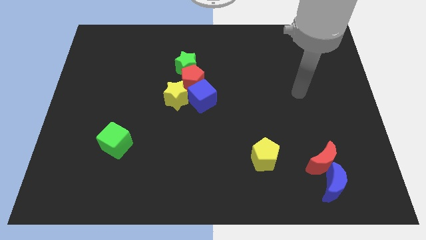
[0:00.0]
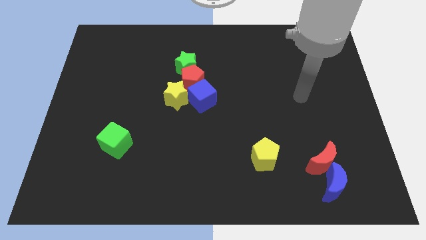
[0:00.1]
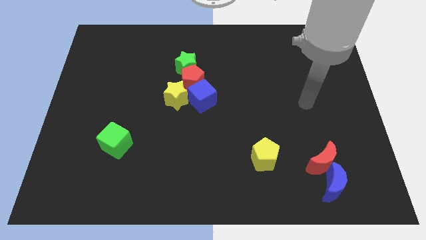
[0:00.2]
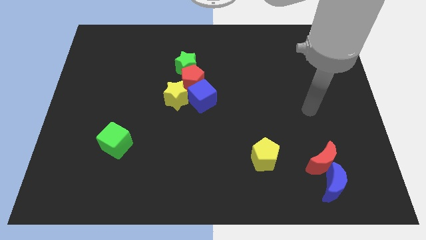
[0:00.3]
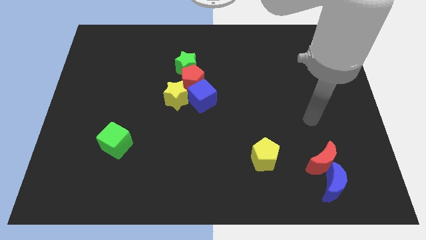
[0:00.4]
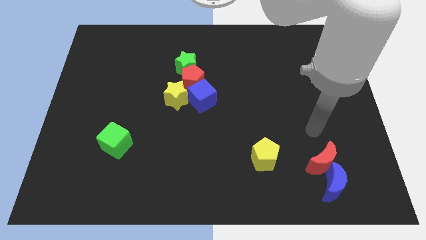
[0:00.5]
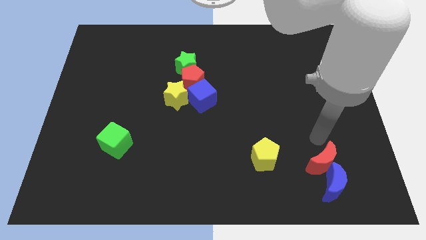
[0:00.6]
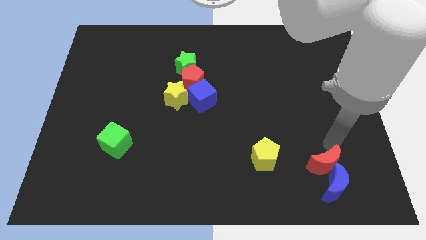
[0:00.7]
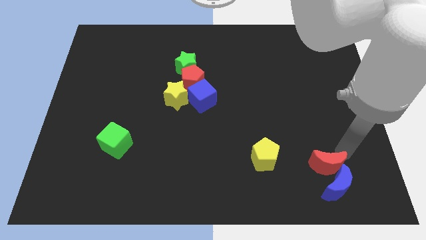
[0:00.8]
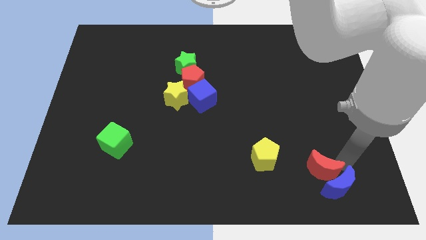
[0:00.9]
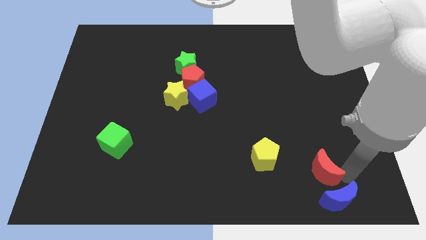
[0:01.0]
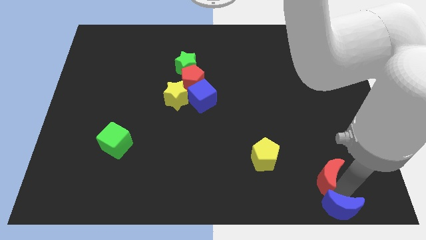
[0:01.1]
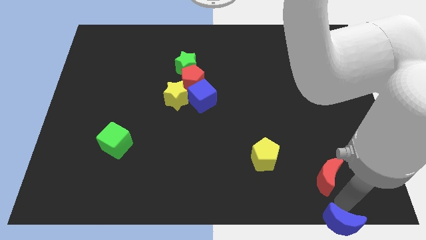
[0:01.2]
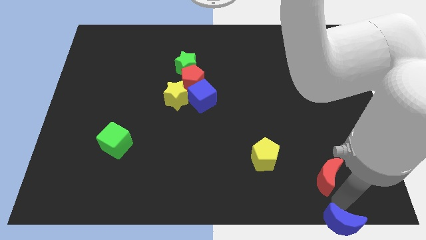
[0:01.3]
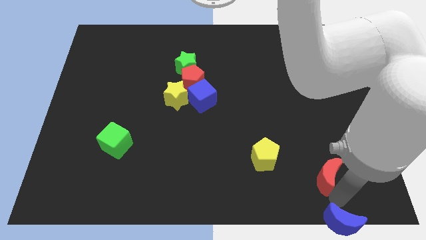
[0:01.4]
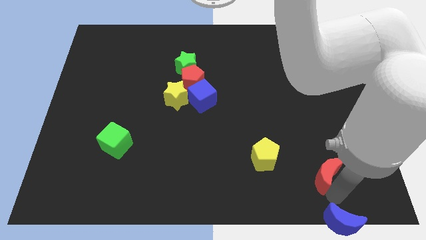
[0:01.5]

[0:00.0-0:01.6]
pull the red moon apart from the blue moon

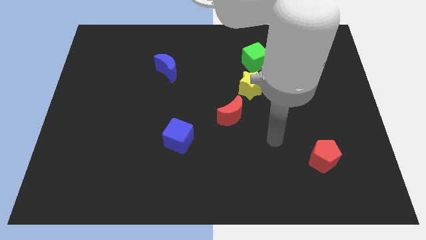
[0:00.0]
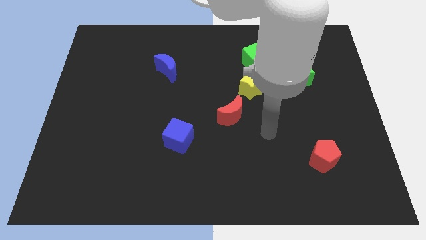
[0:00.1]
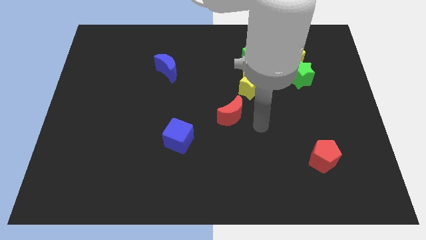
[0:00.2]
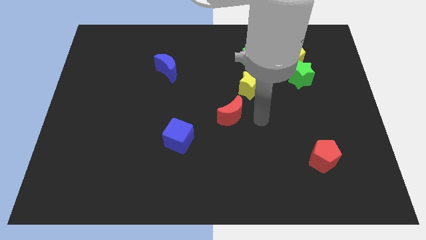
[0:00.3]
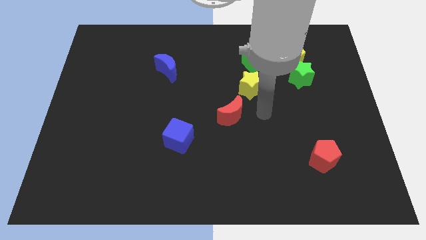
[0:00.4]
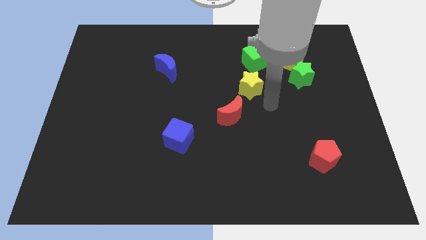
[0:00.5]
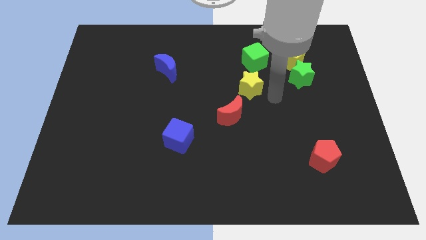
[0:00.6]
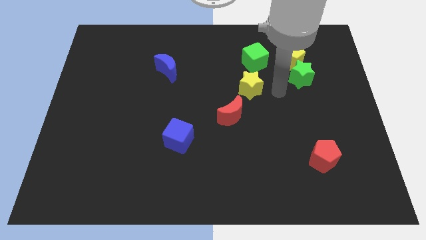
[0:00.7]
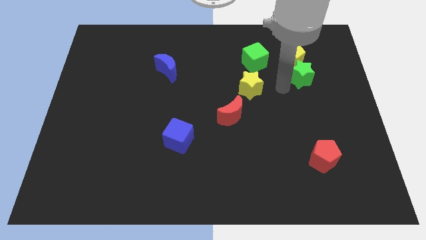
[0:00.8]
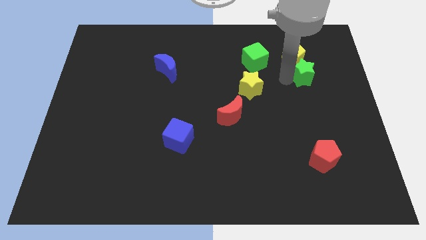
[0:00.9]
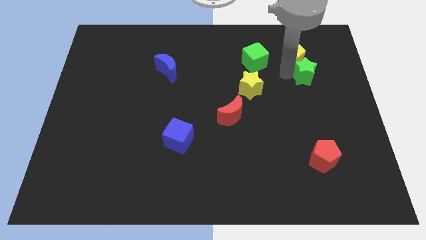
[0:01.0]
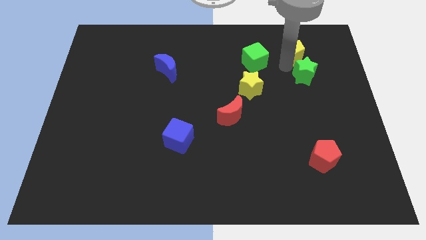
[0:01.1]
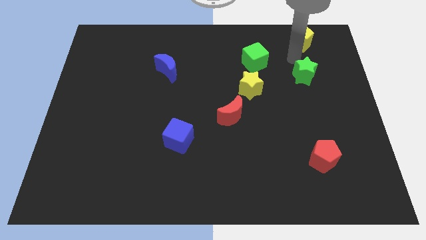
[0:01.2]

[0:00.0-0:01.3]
separate the green star from the yellow pentagon

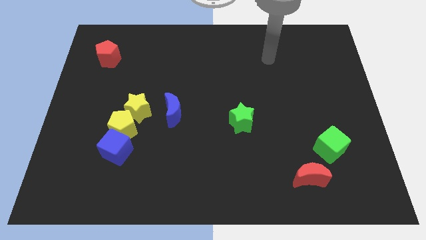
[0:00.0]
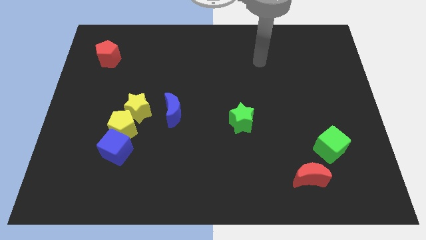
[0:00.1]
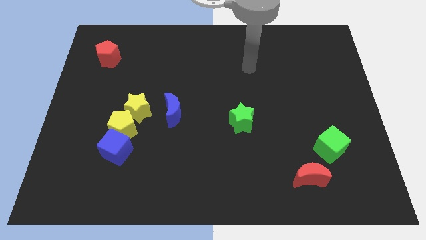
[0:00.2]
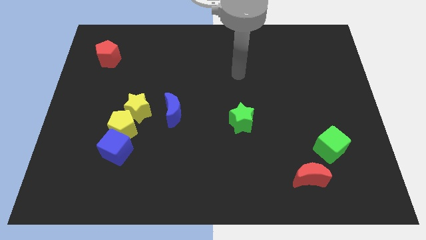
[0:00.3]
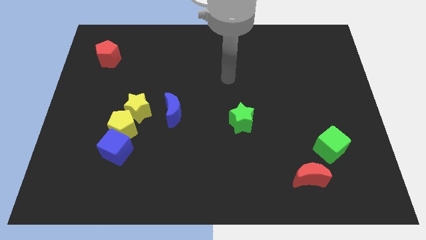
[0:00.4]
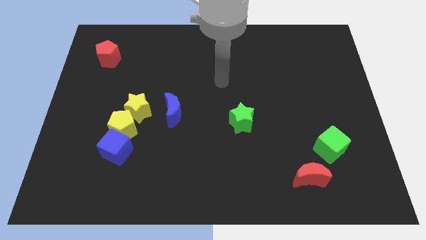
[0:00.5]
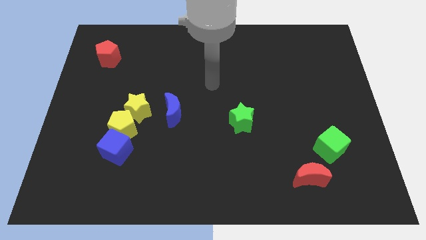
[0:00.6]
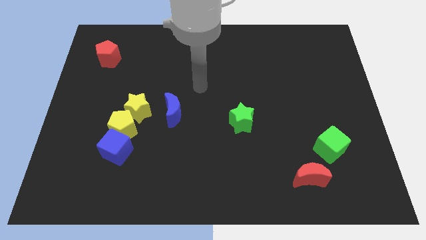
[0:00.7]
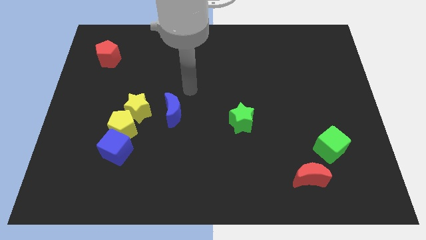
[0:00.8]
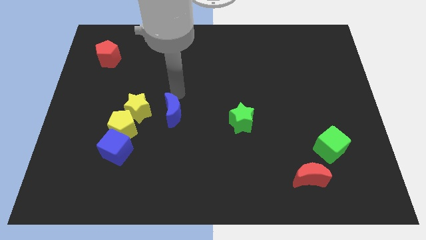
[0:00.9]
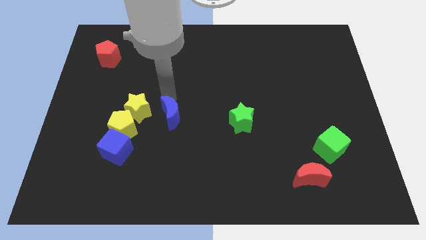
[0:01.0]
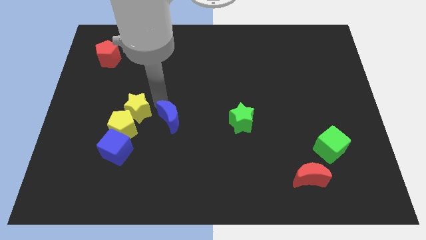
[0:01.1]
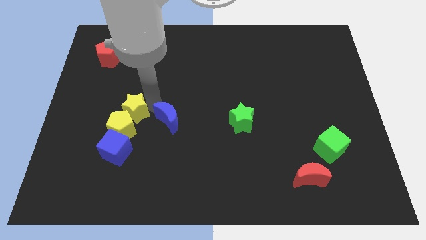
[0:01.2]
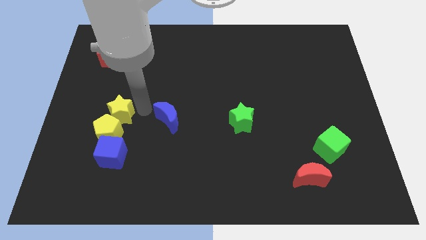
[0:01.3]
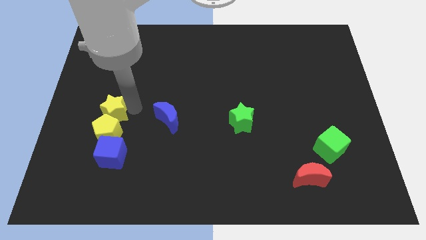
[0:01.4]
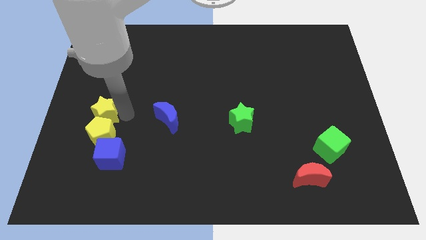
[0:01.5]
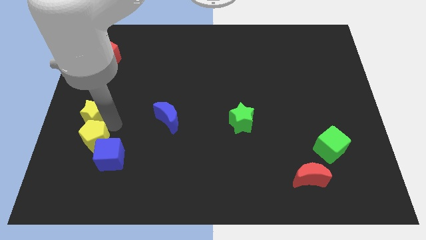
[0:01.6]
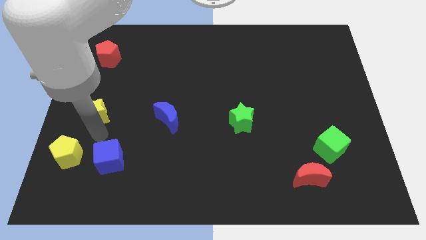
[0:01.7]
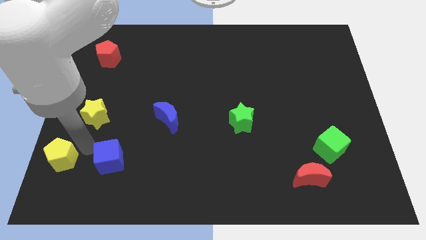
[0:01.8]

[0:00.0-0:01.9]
pull the blue cube apart from the yellow pentagon

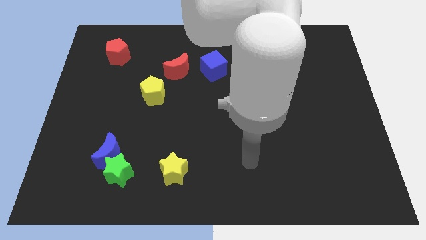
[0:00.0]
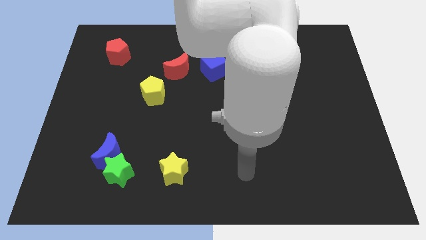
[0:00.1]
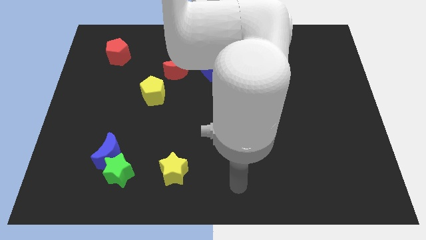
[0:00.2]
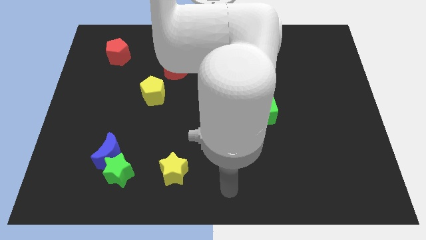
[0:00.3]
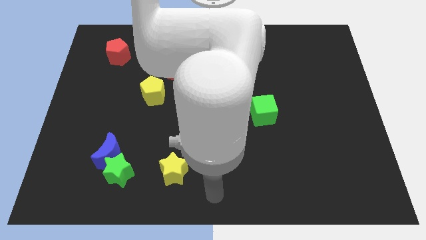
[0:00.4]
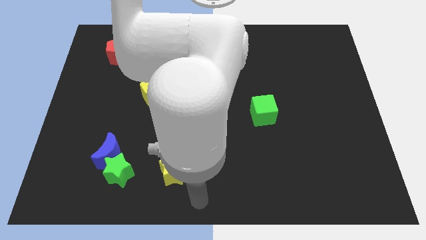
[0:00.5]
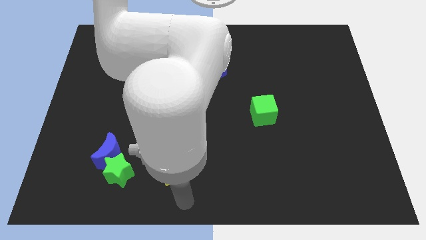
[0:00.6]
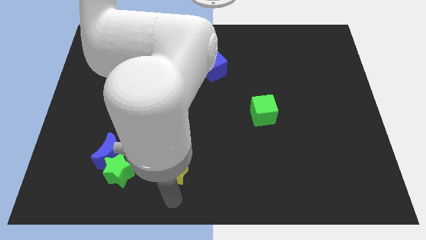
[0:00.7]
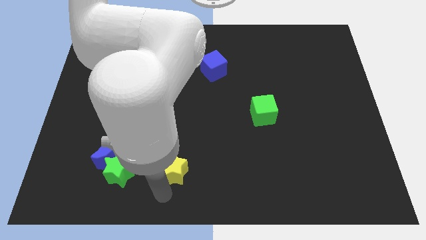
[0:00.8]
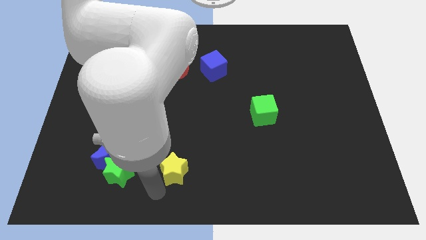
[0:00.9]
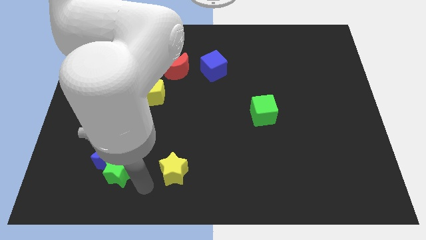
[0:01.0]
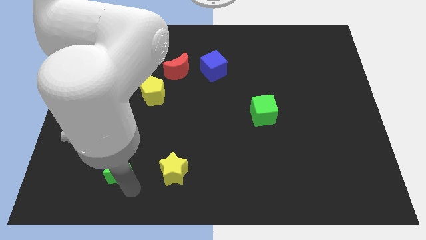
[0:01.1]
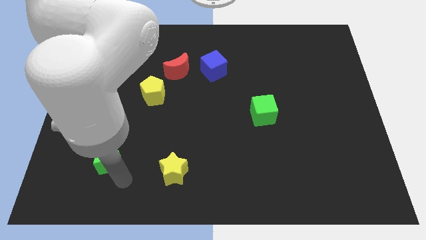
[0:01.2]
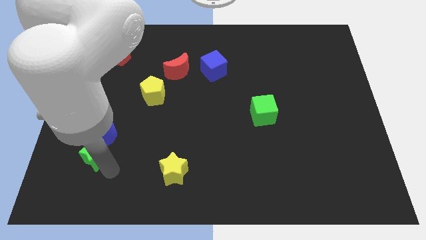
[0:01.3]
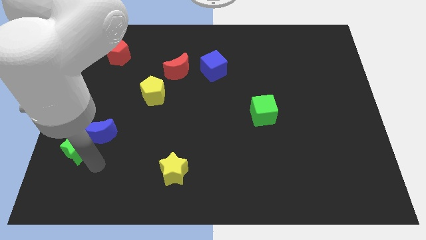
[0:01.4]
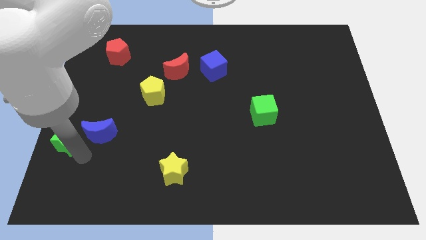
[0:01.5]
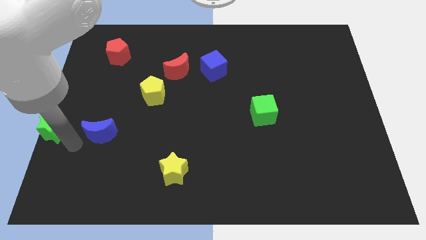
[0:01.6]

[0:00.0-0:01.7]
move the blue moon away from the green star

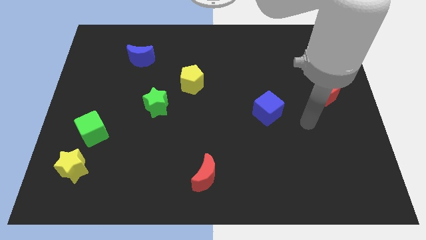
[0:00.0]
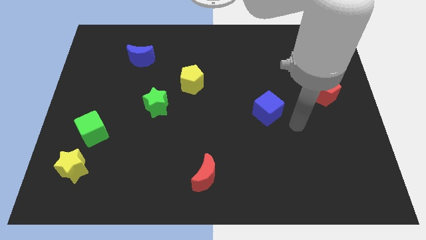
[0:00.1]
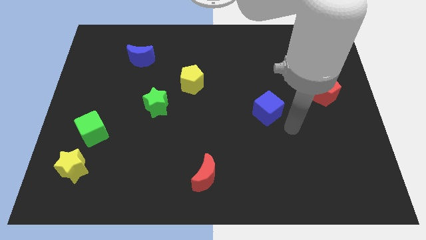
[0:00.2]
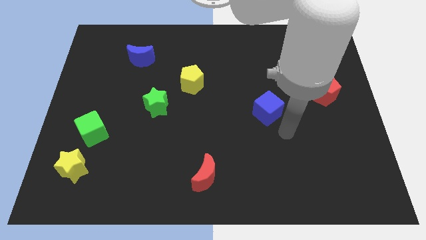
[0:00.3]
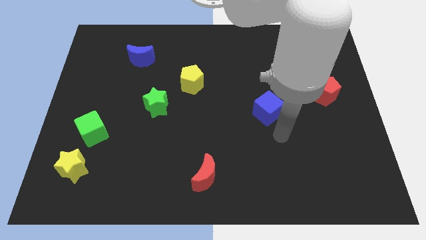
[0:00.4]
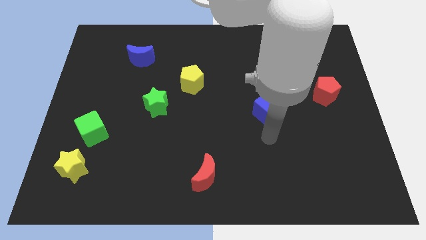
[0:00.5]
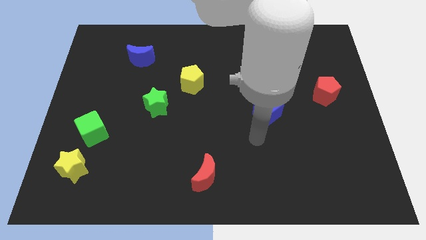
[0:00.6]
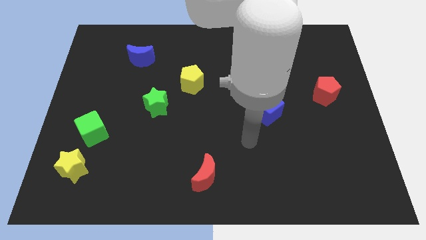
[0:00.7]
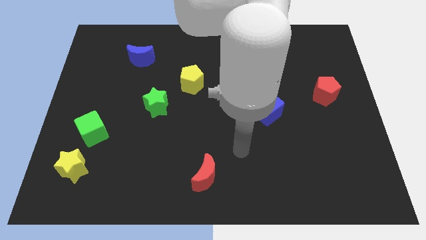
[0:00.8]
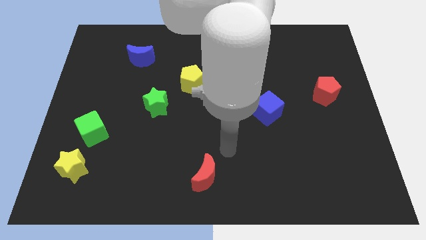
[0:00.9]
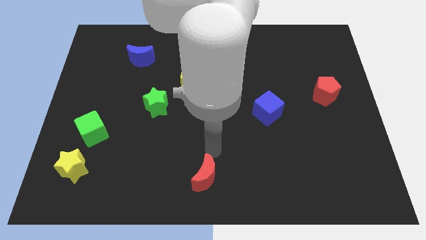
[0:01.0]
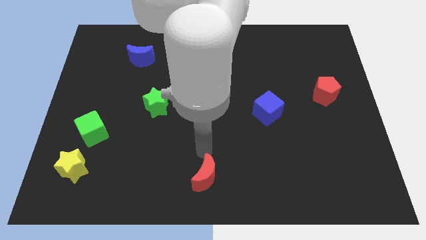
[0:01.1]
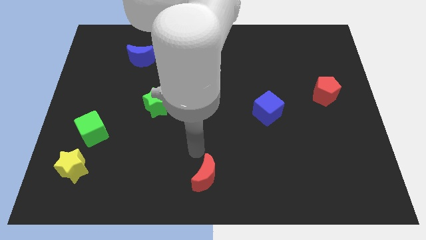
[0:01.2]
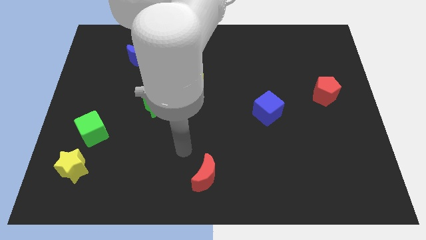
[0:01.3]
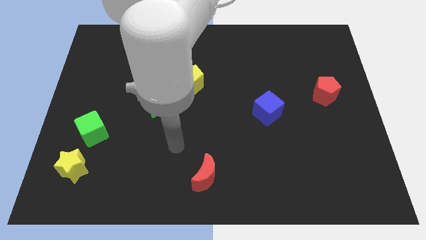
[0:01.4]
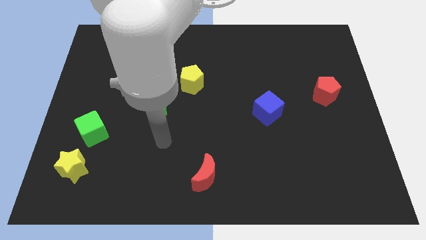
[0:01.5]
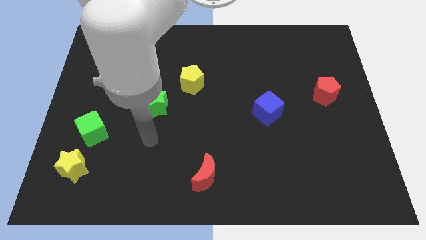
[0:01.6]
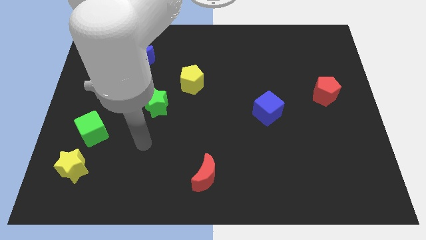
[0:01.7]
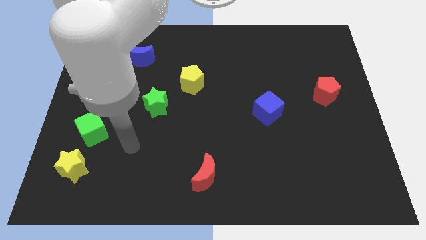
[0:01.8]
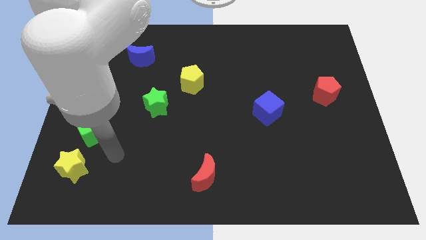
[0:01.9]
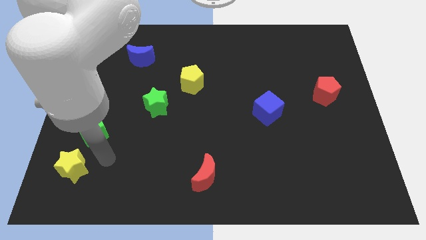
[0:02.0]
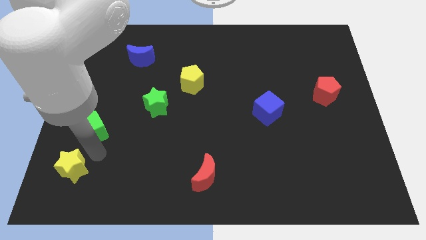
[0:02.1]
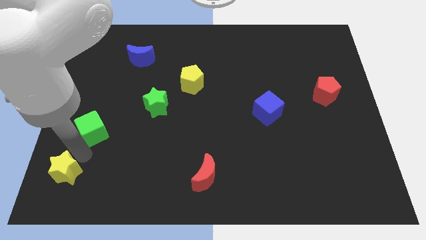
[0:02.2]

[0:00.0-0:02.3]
separate the green cube from the yellow star

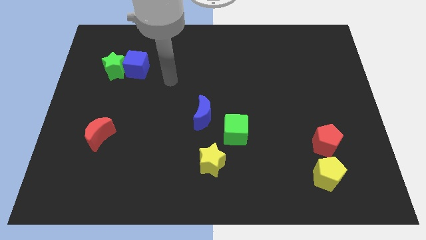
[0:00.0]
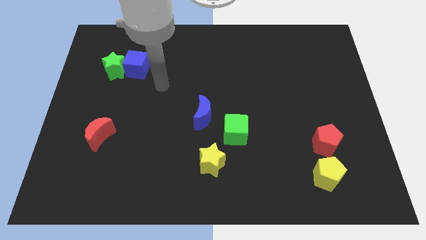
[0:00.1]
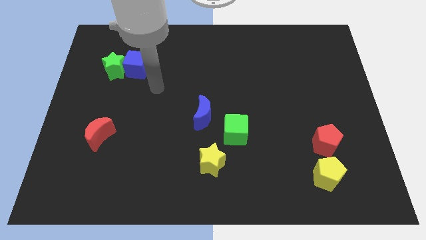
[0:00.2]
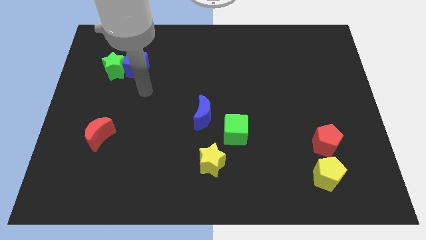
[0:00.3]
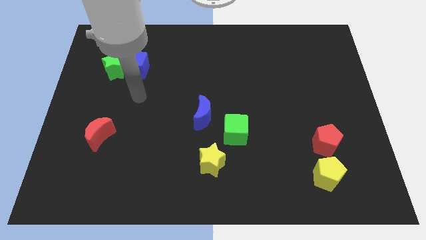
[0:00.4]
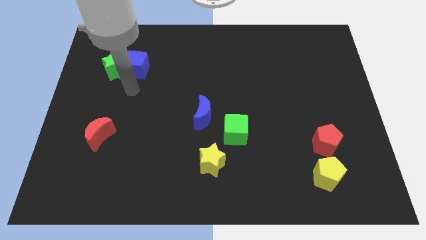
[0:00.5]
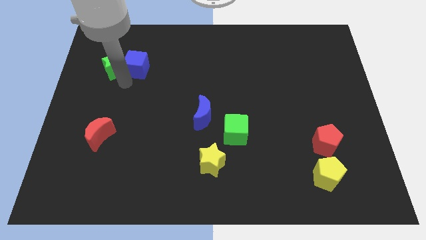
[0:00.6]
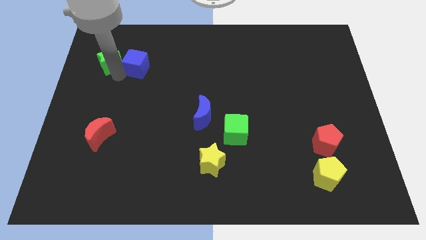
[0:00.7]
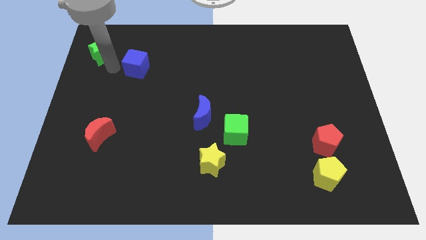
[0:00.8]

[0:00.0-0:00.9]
move the blue cube away from the green star
